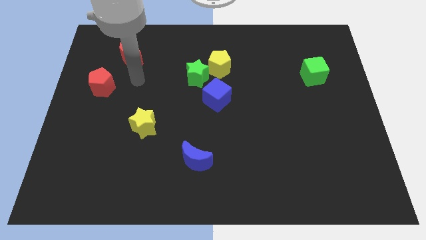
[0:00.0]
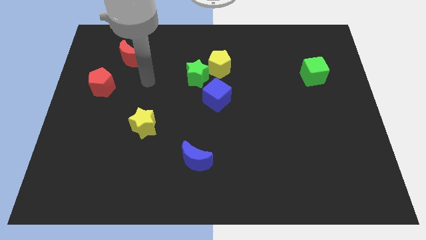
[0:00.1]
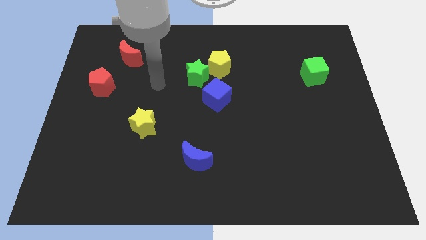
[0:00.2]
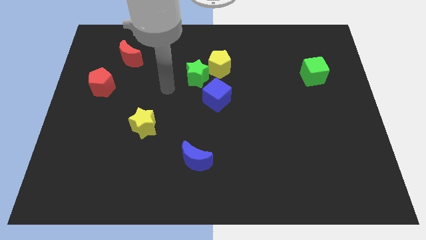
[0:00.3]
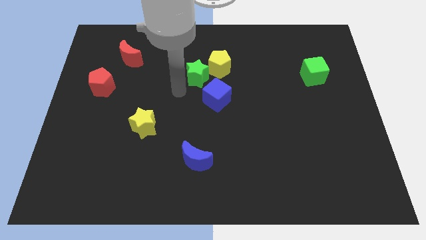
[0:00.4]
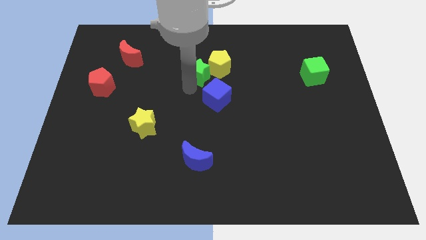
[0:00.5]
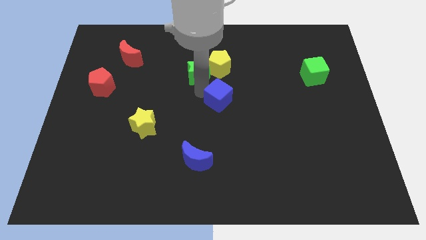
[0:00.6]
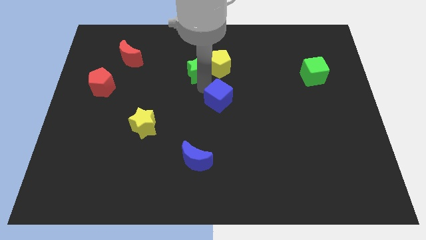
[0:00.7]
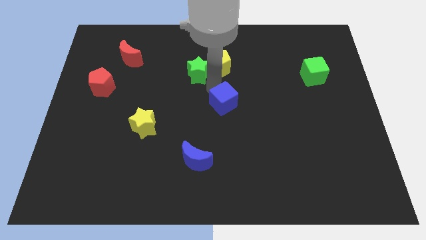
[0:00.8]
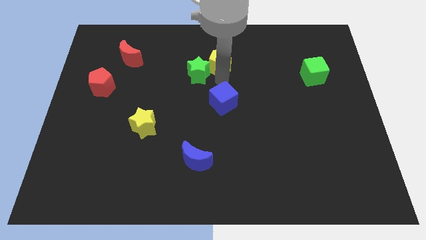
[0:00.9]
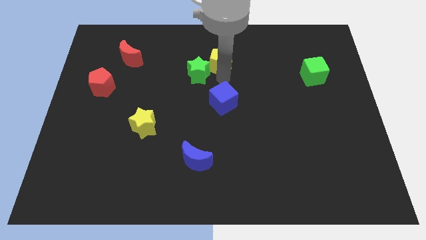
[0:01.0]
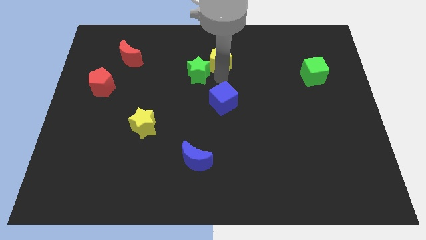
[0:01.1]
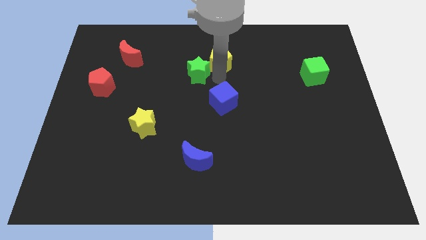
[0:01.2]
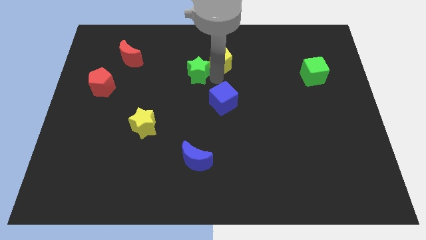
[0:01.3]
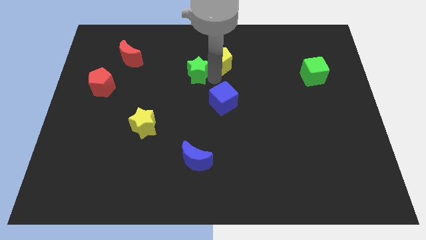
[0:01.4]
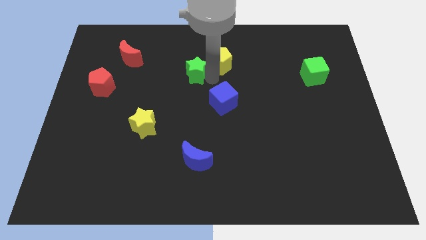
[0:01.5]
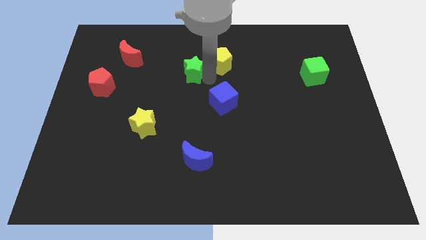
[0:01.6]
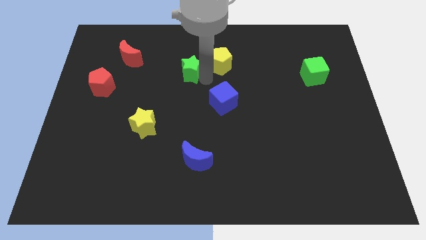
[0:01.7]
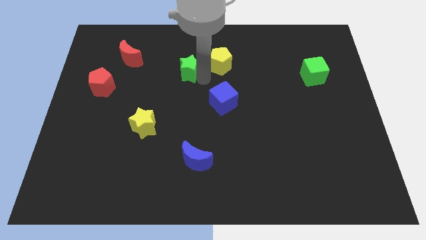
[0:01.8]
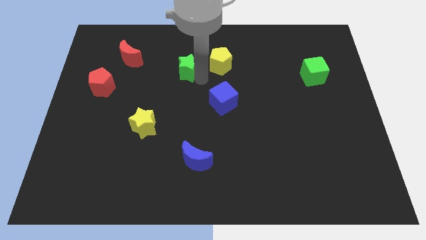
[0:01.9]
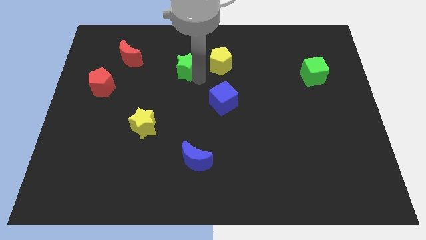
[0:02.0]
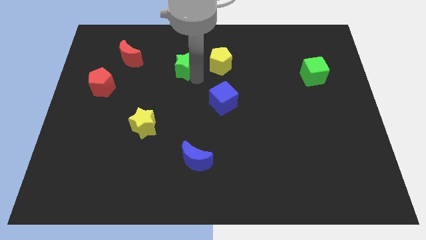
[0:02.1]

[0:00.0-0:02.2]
move the green star away from the yellow pentagon and blue cube

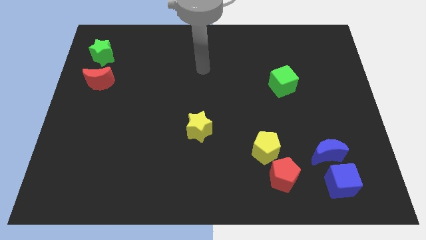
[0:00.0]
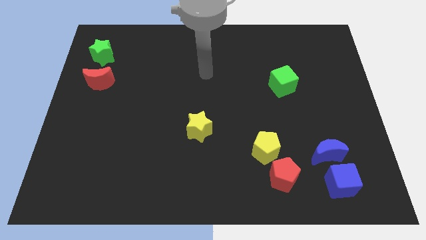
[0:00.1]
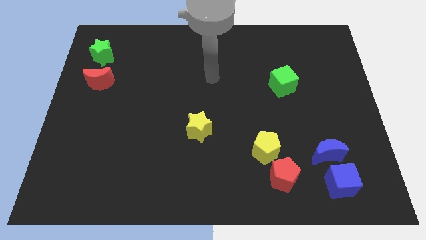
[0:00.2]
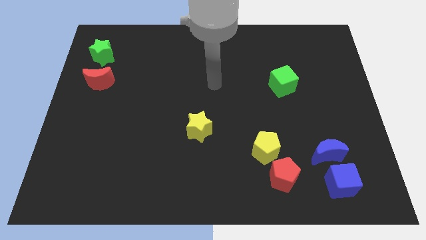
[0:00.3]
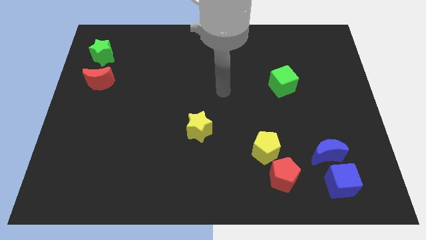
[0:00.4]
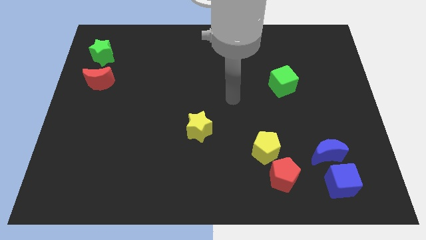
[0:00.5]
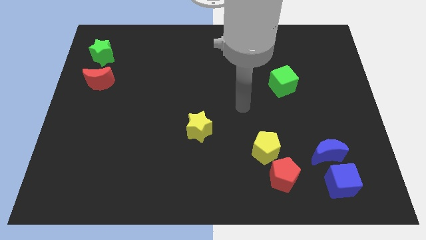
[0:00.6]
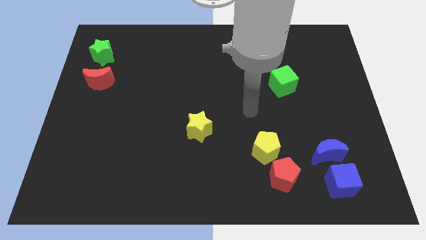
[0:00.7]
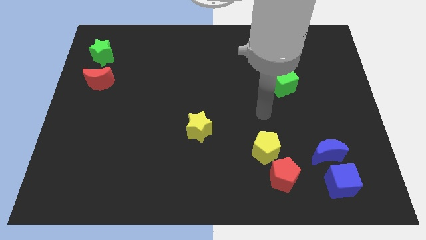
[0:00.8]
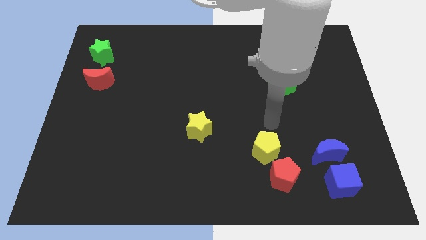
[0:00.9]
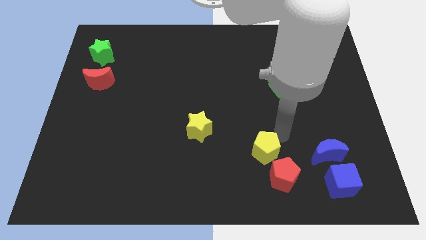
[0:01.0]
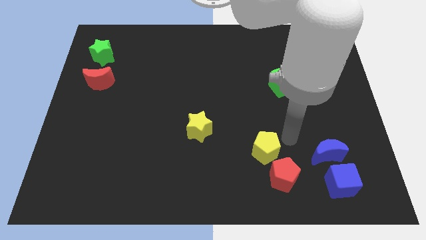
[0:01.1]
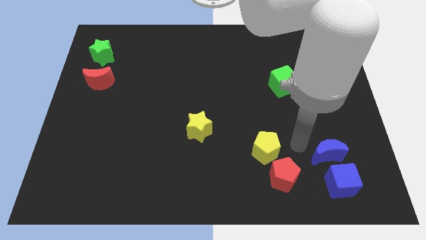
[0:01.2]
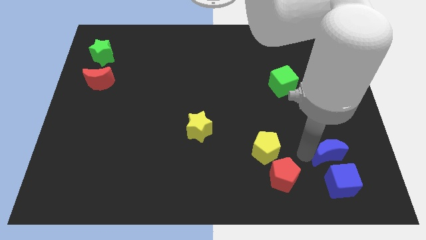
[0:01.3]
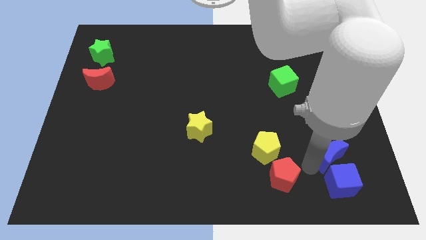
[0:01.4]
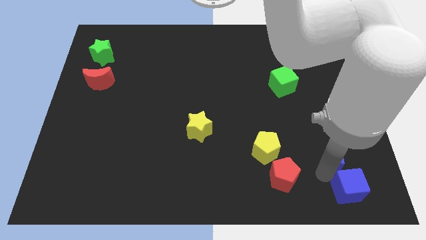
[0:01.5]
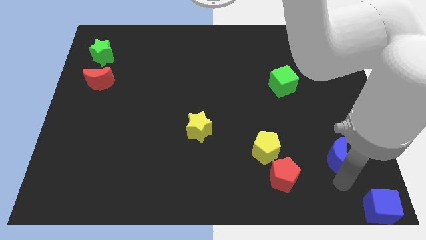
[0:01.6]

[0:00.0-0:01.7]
move the blue moon away from the blue cube

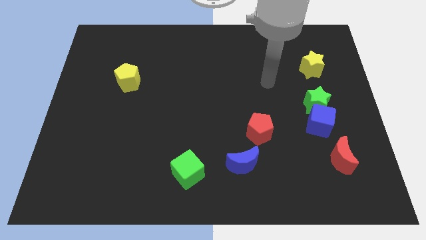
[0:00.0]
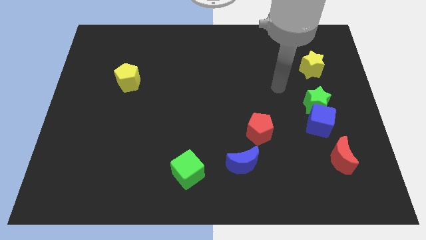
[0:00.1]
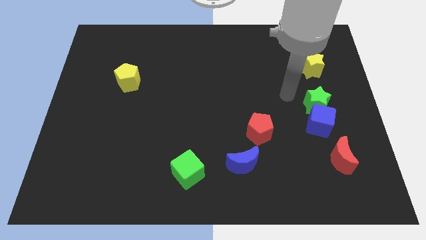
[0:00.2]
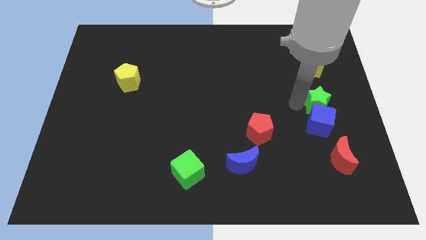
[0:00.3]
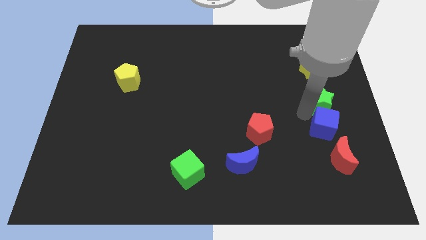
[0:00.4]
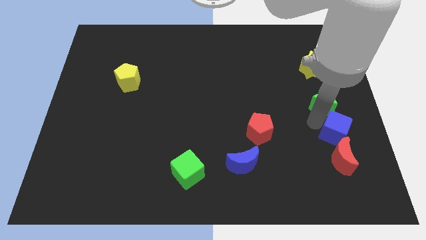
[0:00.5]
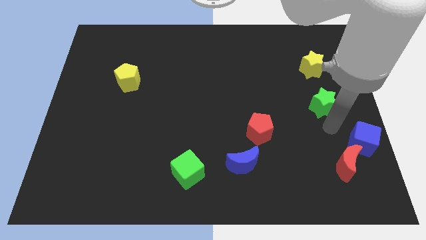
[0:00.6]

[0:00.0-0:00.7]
move the green star away from the blue cube

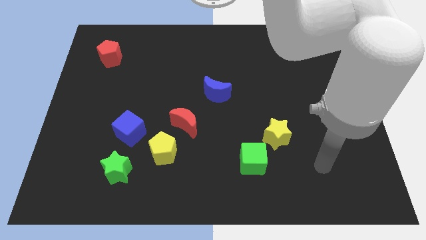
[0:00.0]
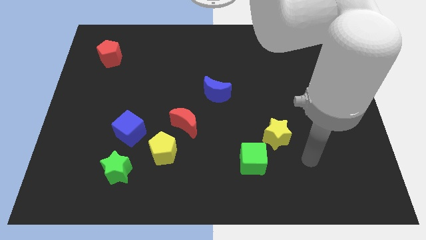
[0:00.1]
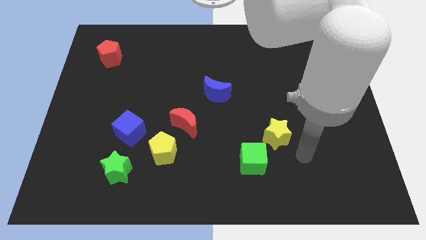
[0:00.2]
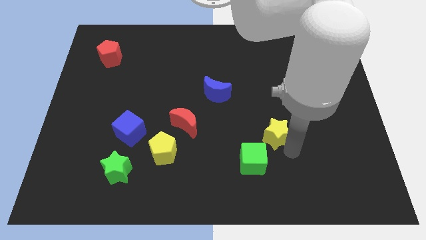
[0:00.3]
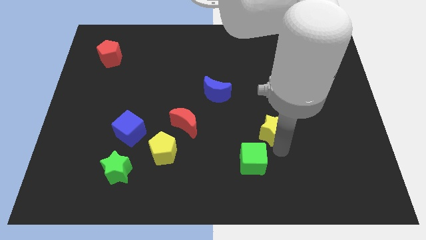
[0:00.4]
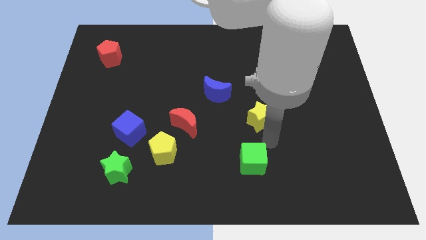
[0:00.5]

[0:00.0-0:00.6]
pull the green cube apart from the yellow star

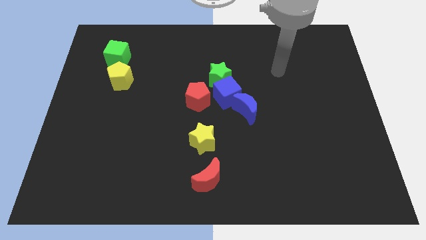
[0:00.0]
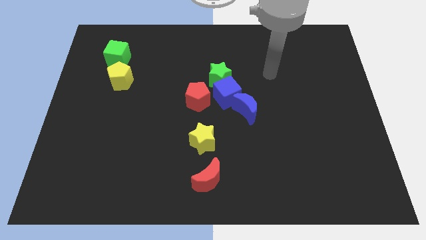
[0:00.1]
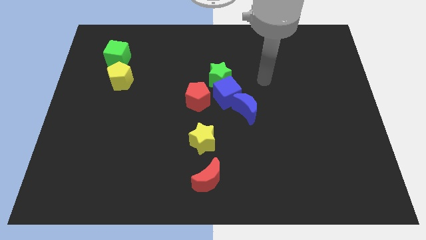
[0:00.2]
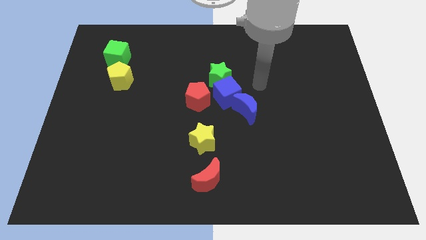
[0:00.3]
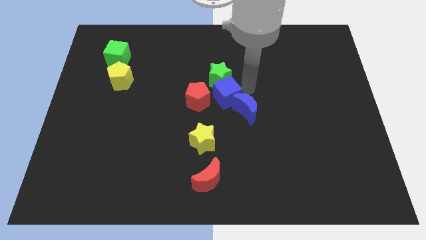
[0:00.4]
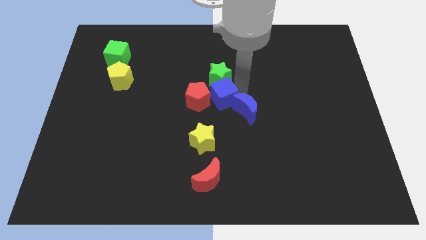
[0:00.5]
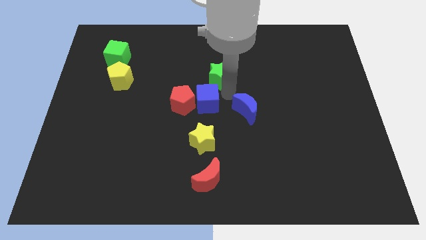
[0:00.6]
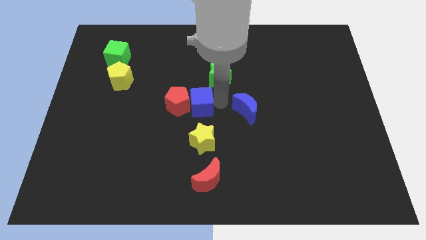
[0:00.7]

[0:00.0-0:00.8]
separate the blue moon from the blue cube

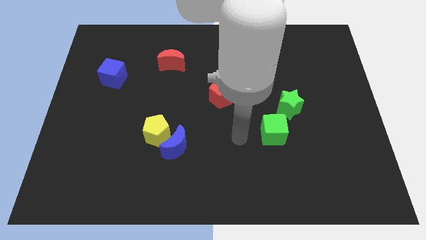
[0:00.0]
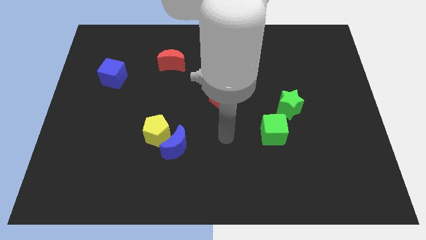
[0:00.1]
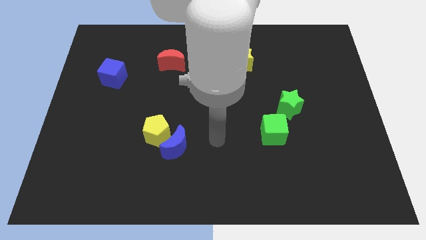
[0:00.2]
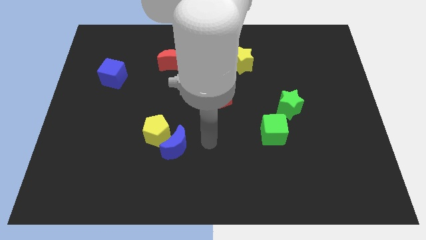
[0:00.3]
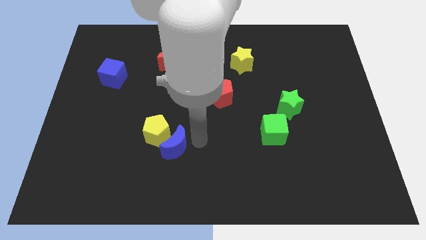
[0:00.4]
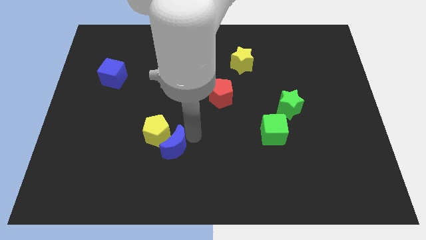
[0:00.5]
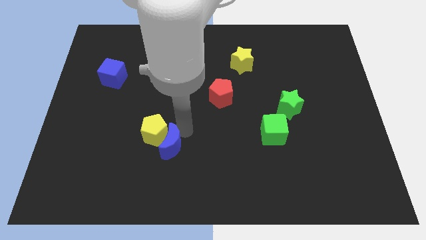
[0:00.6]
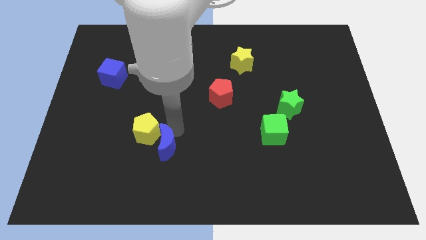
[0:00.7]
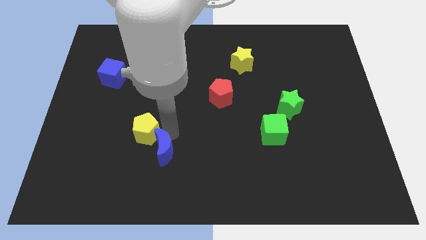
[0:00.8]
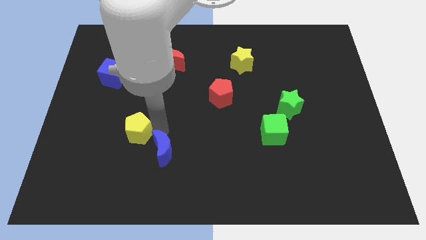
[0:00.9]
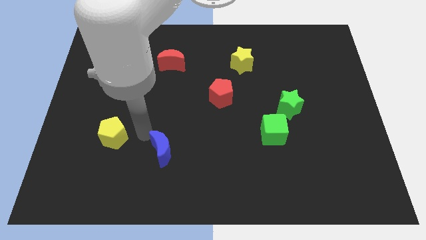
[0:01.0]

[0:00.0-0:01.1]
pull the blue moon apart from the yellow pentagon

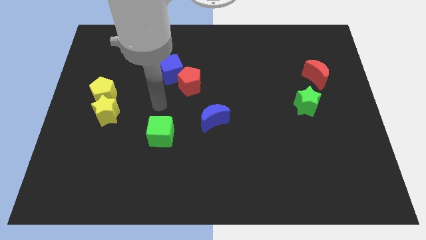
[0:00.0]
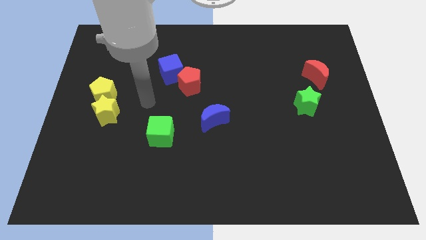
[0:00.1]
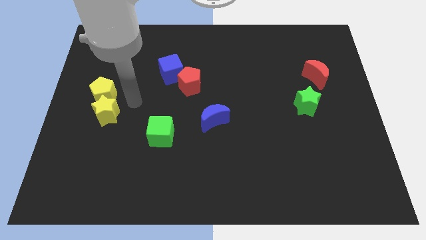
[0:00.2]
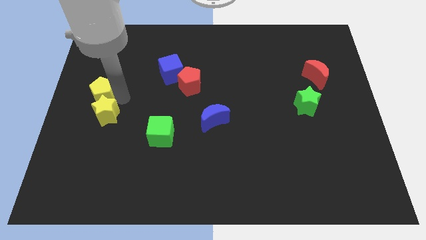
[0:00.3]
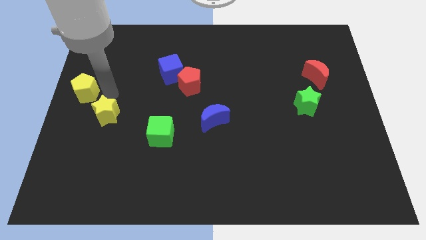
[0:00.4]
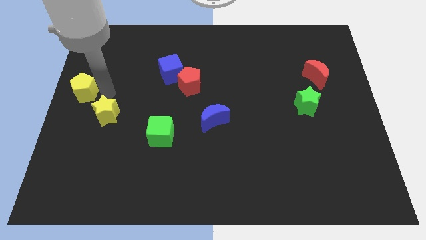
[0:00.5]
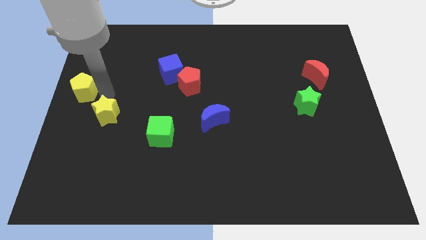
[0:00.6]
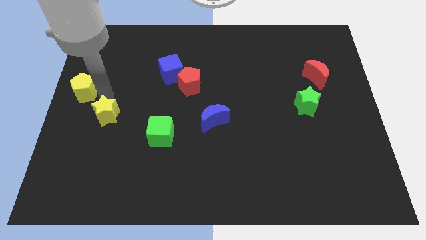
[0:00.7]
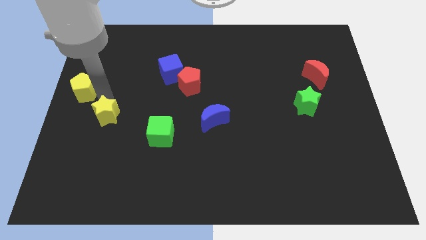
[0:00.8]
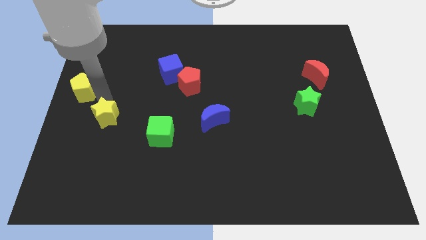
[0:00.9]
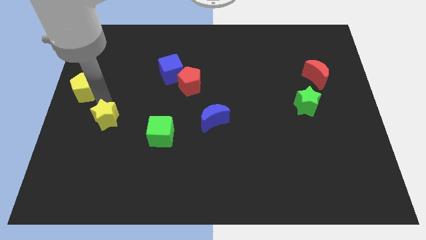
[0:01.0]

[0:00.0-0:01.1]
separate the yellow star from the yellow pentagon

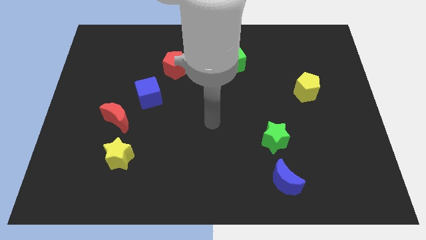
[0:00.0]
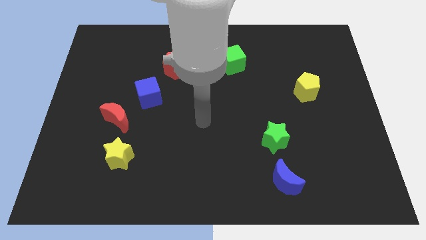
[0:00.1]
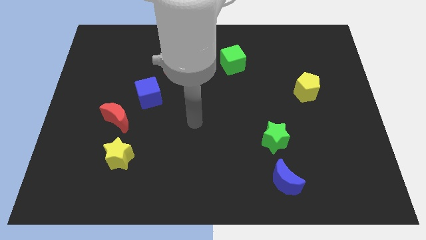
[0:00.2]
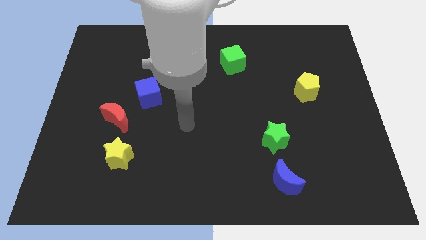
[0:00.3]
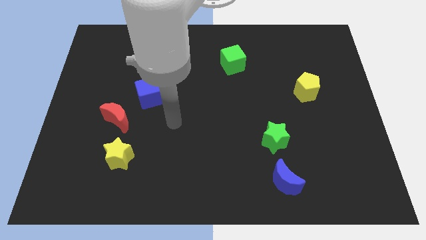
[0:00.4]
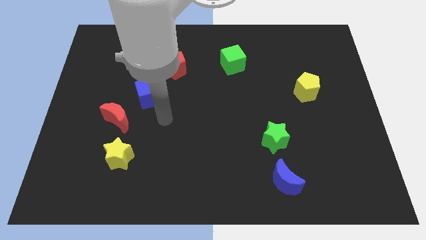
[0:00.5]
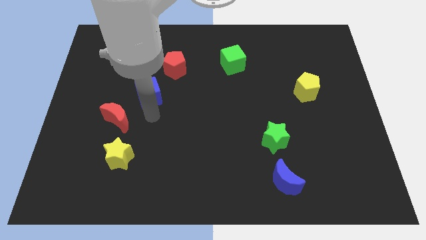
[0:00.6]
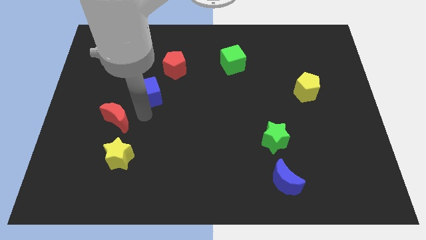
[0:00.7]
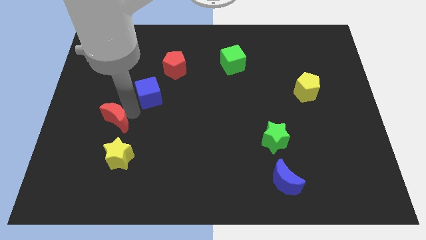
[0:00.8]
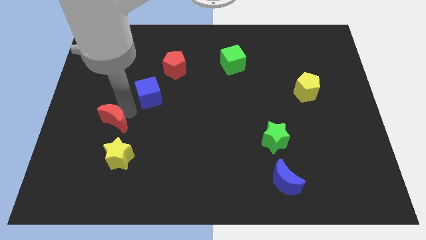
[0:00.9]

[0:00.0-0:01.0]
move the blue cube away from the red moon
